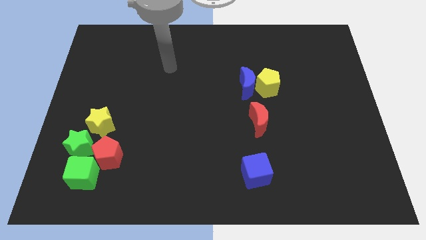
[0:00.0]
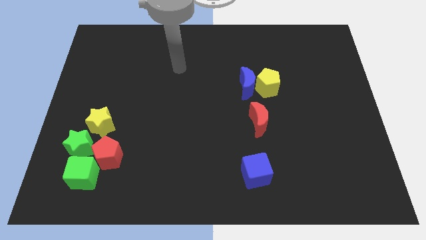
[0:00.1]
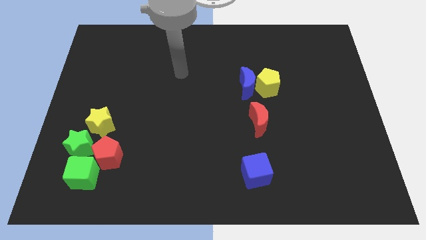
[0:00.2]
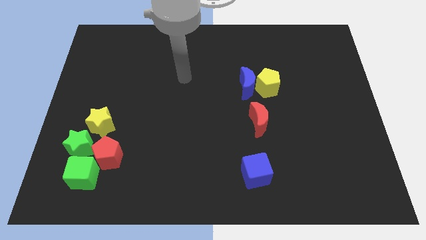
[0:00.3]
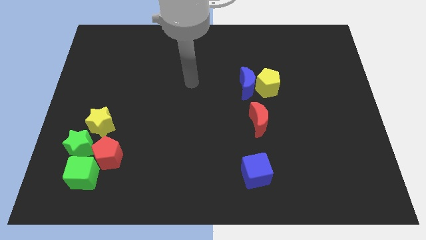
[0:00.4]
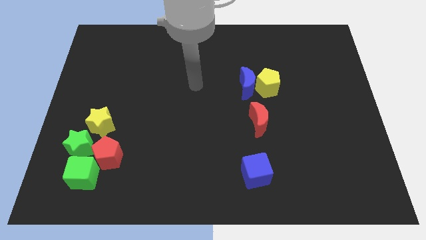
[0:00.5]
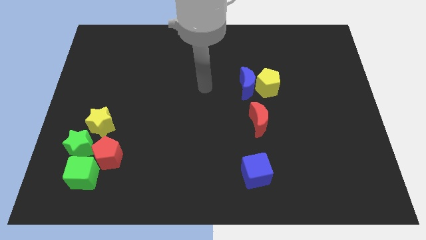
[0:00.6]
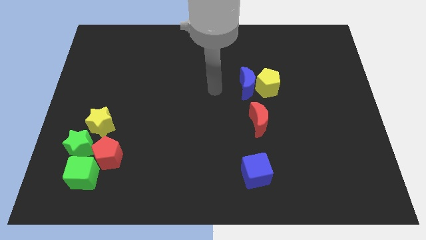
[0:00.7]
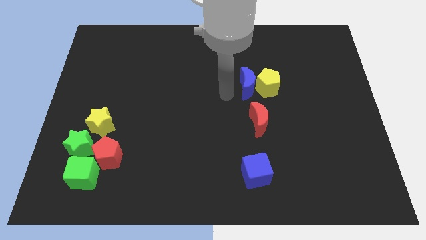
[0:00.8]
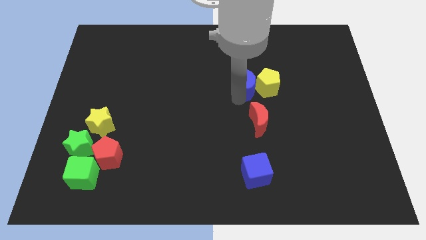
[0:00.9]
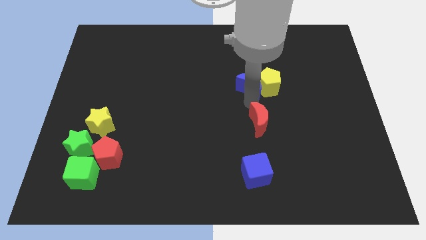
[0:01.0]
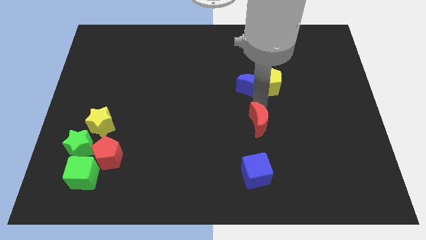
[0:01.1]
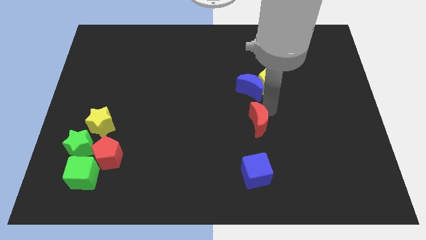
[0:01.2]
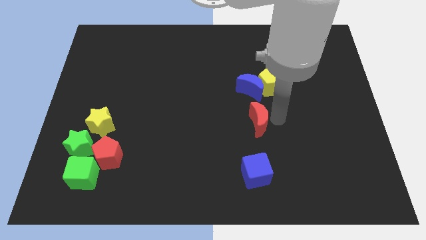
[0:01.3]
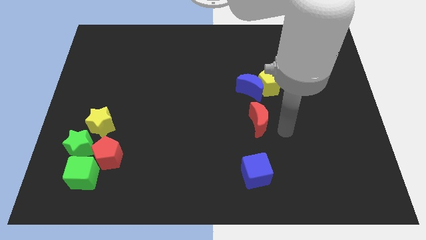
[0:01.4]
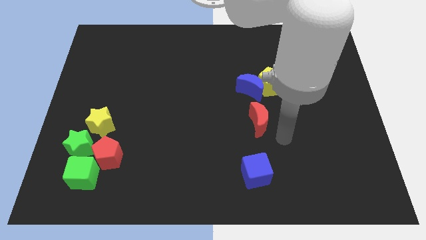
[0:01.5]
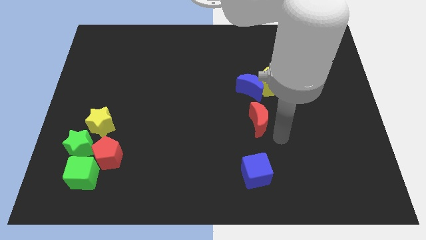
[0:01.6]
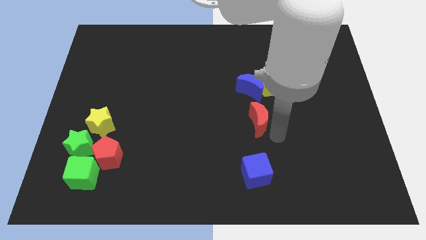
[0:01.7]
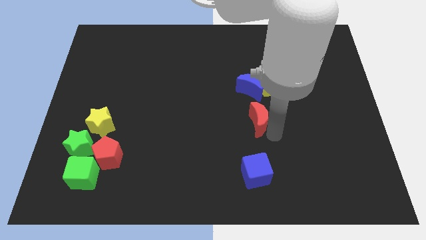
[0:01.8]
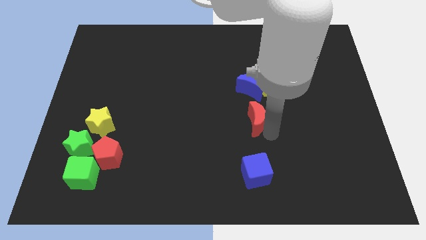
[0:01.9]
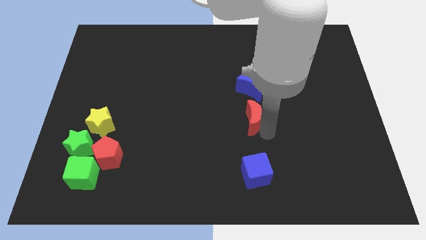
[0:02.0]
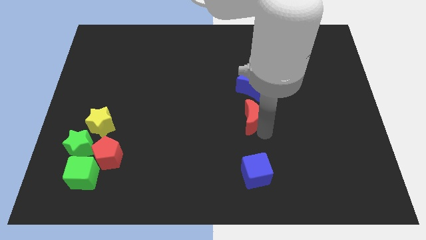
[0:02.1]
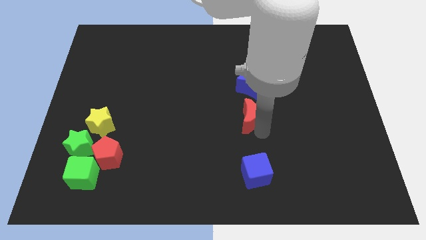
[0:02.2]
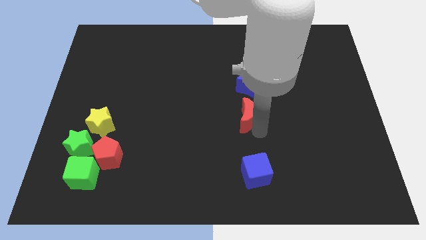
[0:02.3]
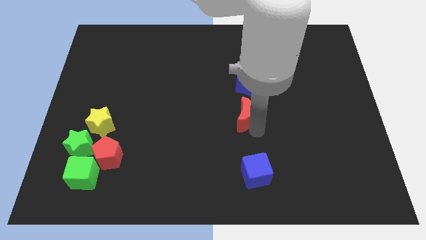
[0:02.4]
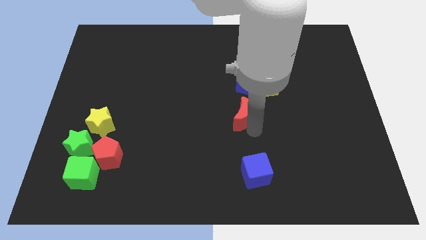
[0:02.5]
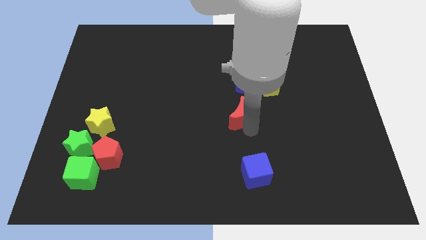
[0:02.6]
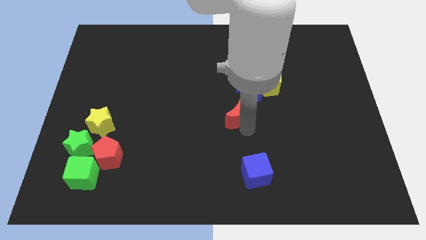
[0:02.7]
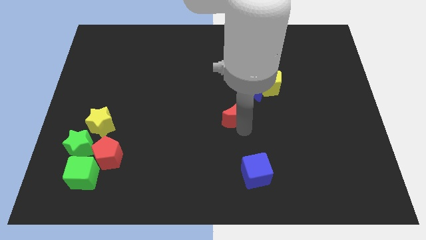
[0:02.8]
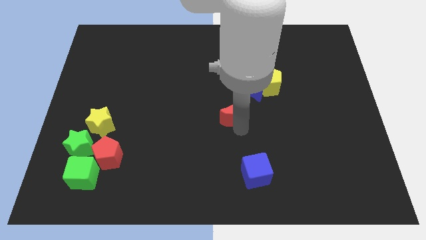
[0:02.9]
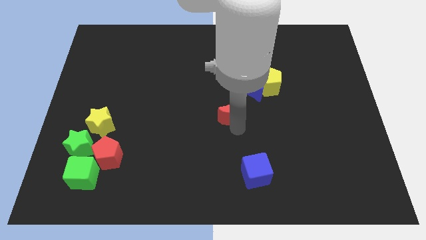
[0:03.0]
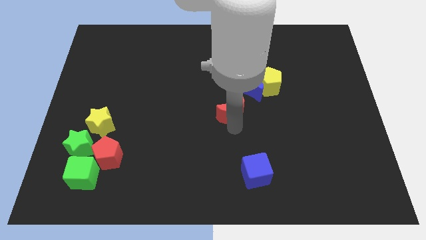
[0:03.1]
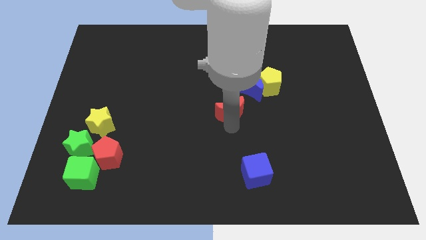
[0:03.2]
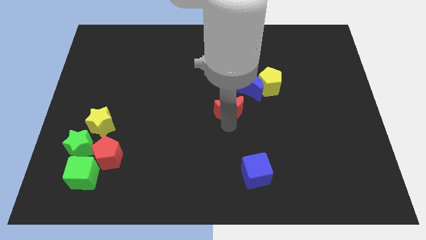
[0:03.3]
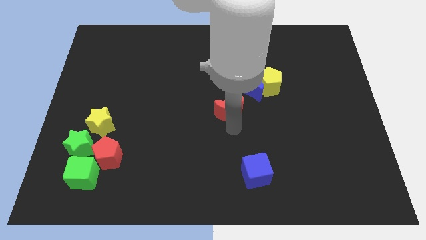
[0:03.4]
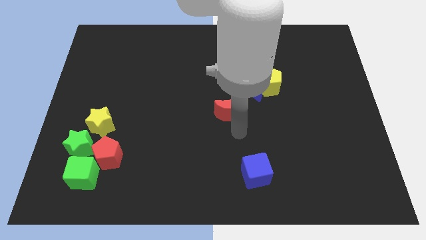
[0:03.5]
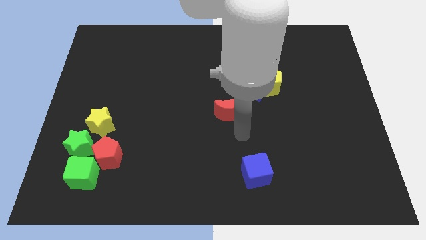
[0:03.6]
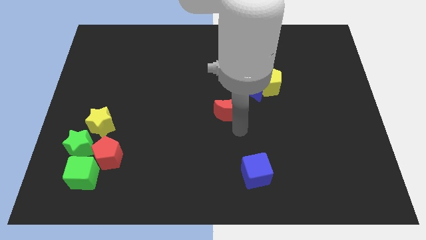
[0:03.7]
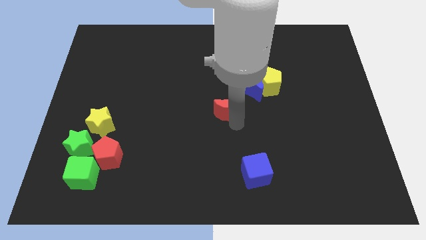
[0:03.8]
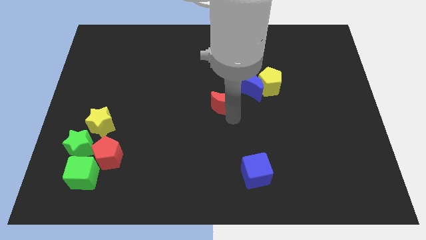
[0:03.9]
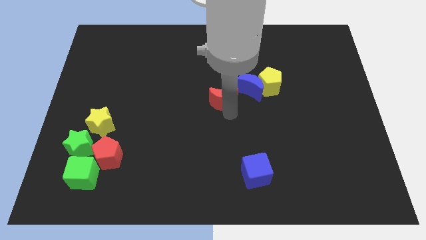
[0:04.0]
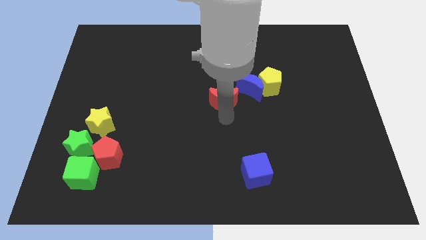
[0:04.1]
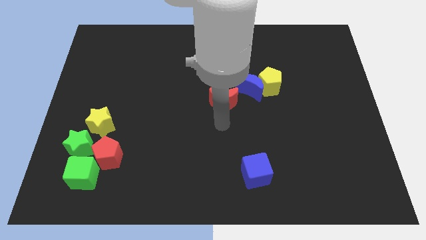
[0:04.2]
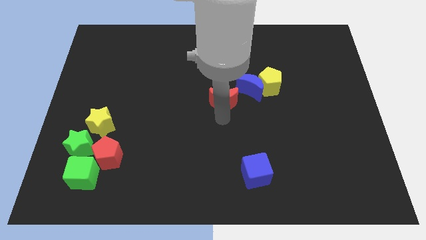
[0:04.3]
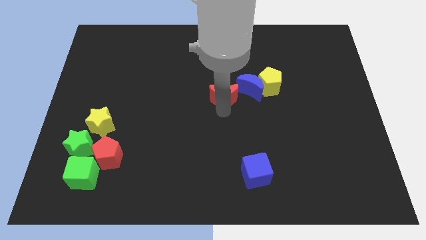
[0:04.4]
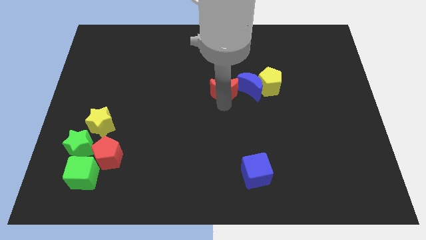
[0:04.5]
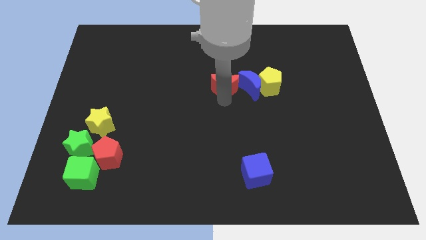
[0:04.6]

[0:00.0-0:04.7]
push the red moon slightly upwards

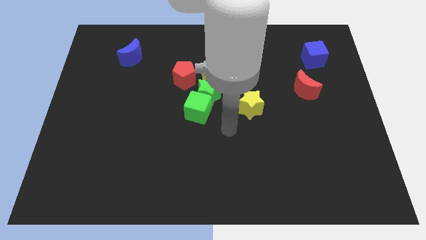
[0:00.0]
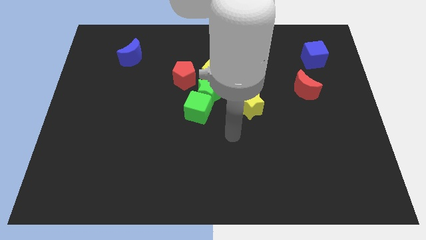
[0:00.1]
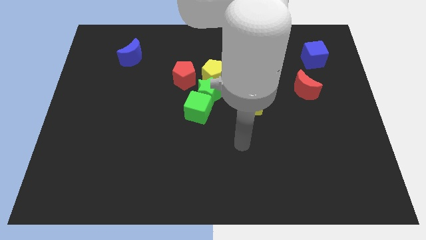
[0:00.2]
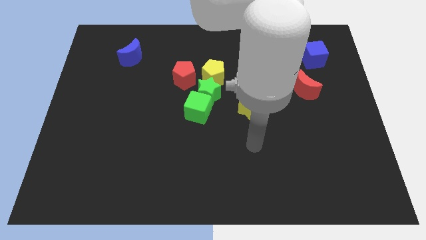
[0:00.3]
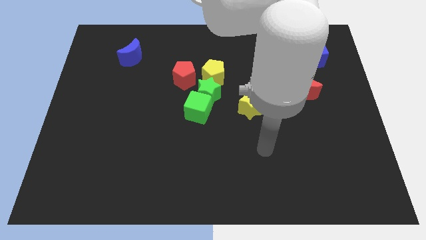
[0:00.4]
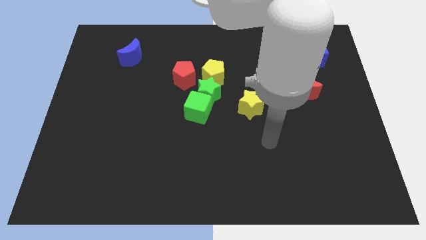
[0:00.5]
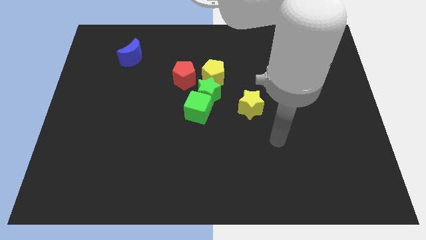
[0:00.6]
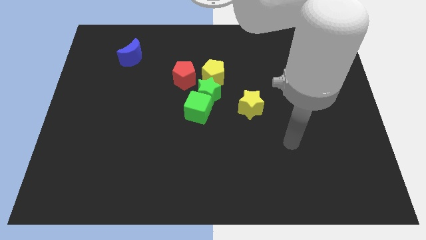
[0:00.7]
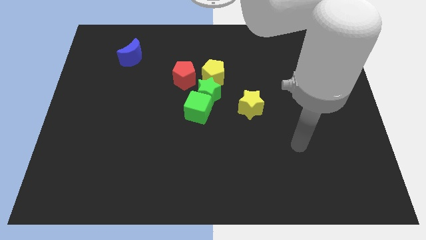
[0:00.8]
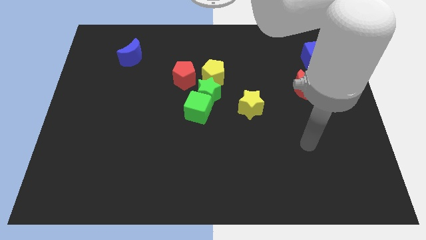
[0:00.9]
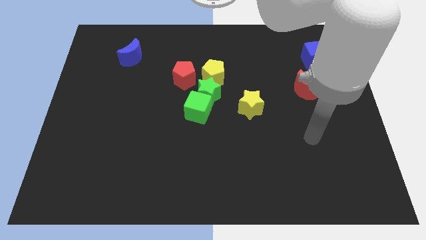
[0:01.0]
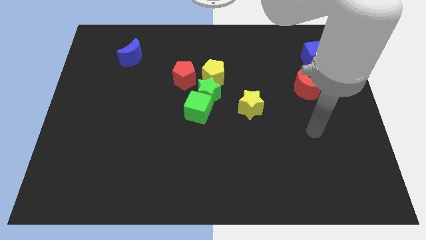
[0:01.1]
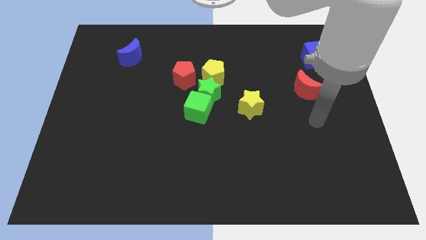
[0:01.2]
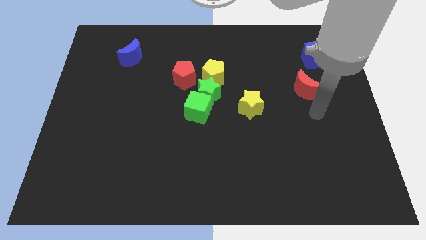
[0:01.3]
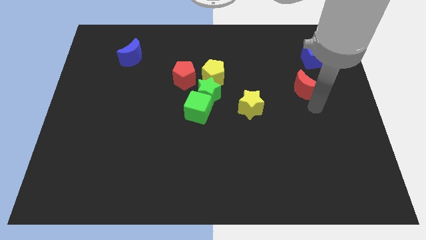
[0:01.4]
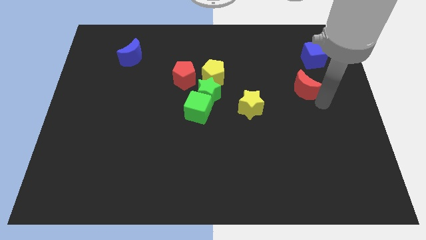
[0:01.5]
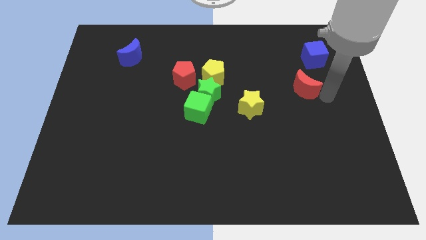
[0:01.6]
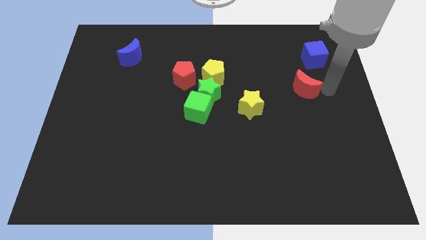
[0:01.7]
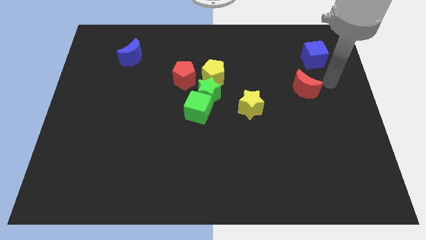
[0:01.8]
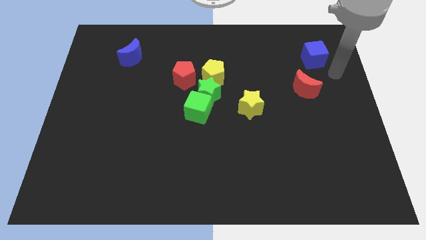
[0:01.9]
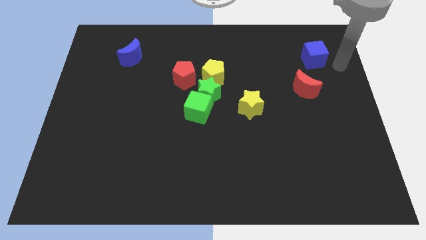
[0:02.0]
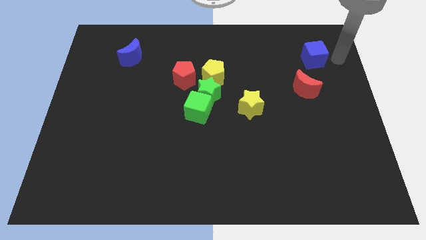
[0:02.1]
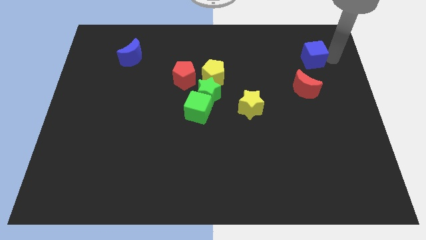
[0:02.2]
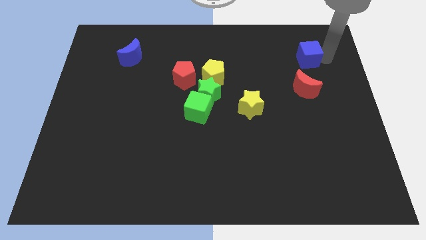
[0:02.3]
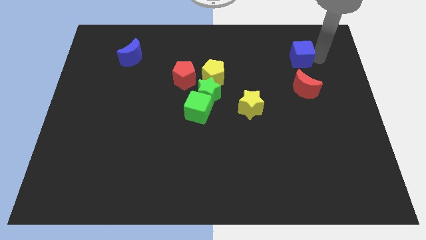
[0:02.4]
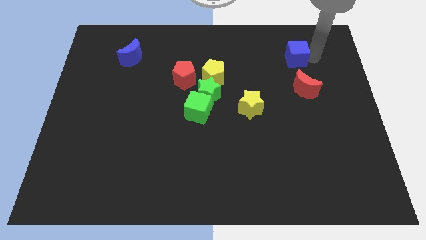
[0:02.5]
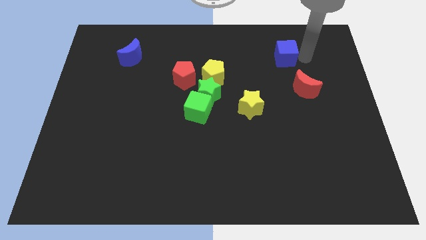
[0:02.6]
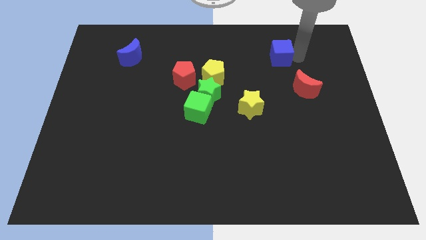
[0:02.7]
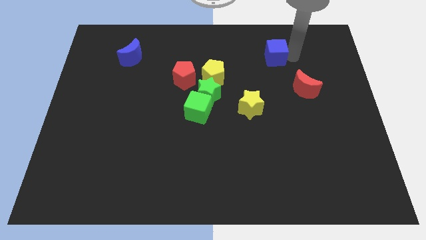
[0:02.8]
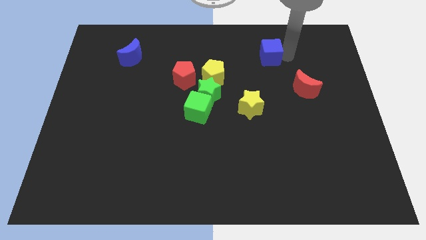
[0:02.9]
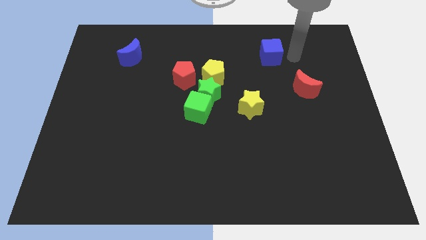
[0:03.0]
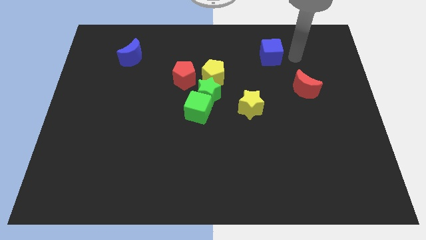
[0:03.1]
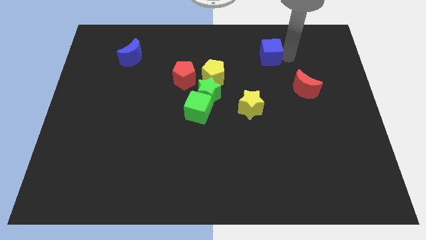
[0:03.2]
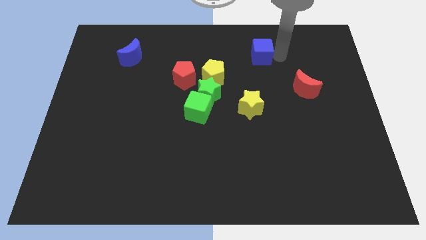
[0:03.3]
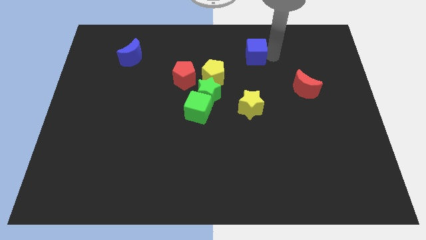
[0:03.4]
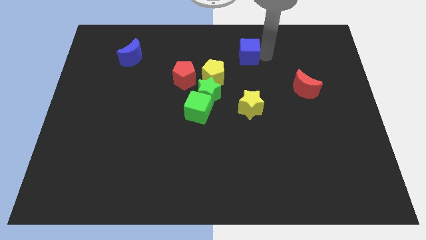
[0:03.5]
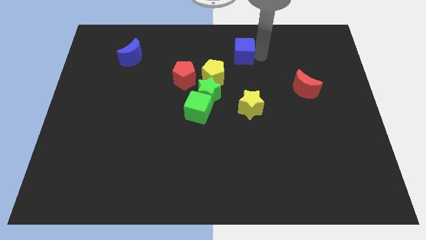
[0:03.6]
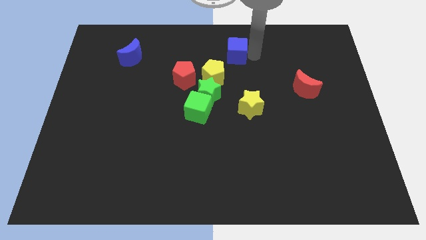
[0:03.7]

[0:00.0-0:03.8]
push the blue cube to the left
